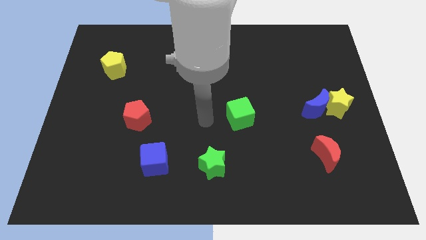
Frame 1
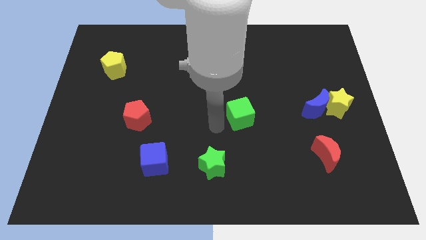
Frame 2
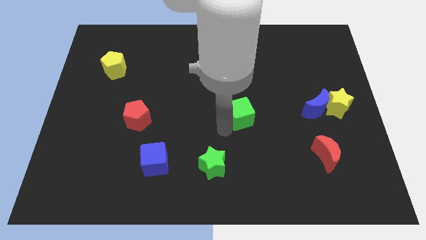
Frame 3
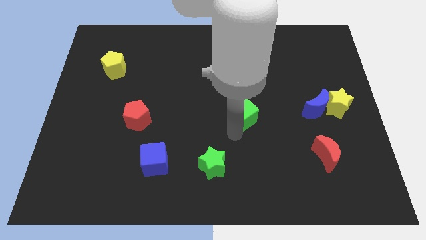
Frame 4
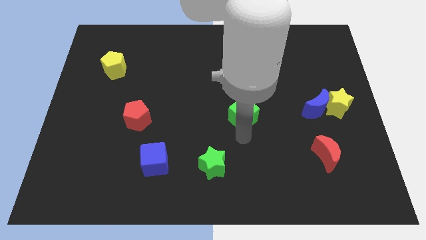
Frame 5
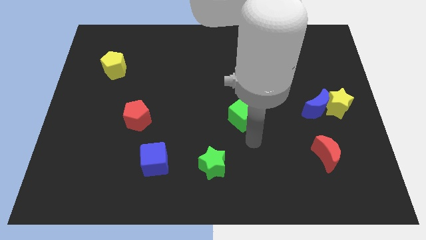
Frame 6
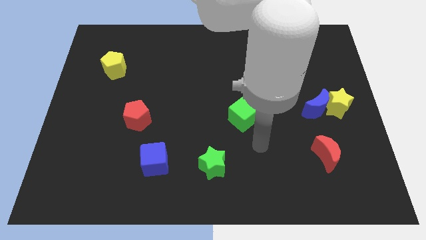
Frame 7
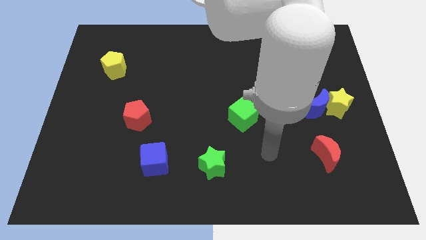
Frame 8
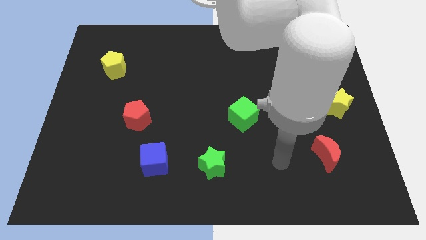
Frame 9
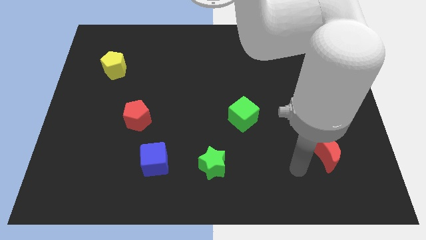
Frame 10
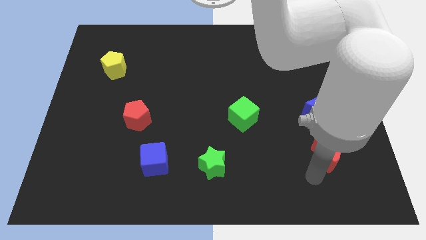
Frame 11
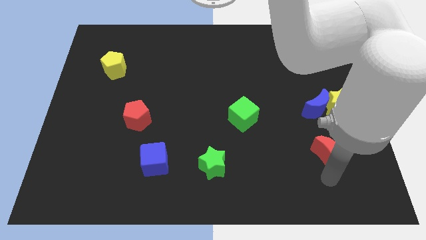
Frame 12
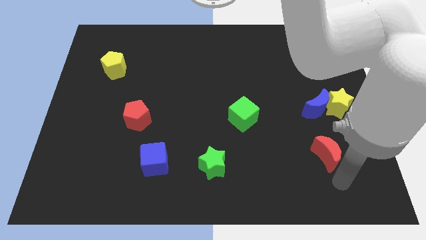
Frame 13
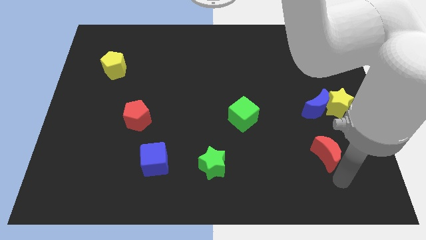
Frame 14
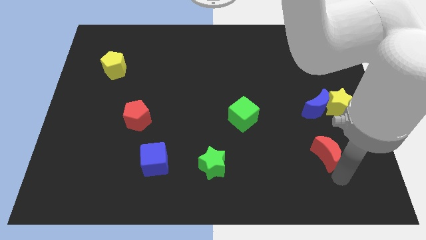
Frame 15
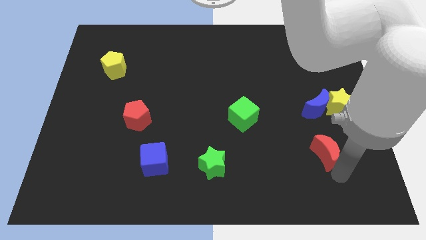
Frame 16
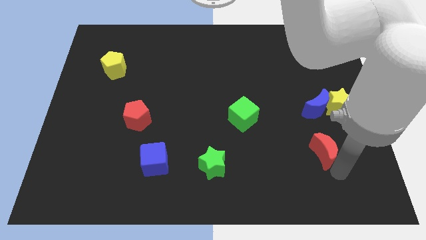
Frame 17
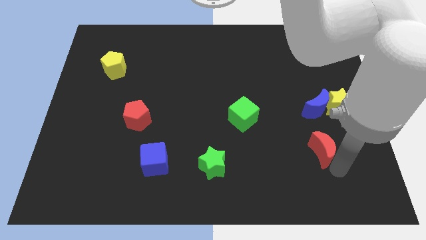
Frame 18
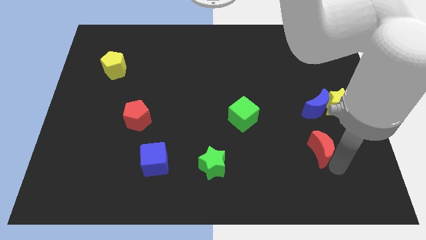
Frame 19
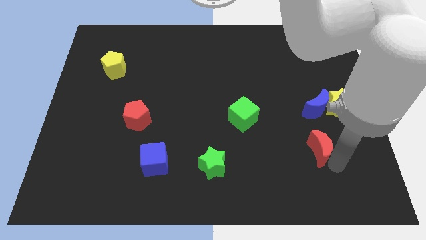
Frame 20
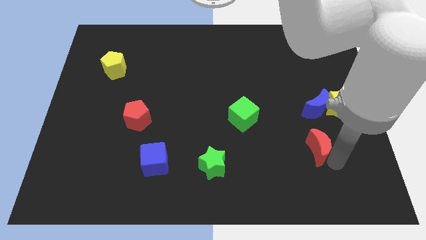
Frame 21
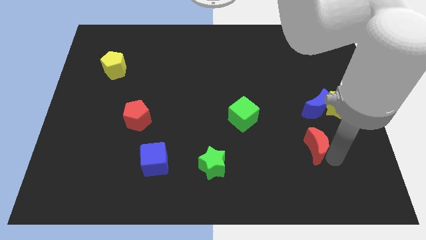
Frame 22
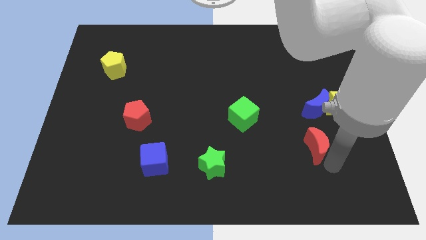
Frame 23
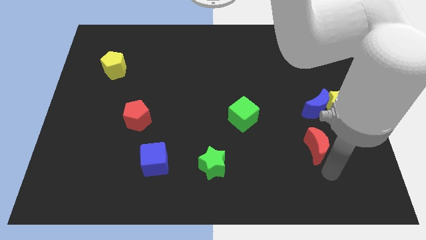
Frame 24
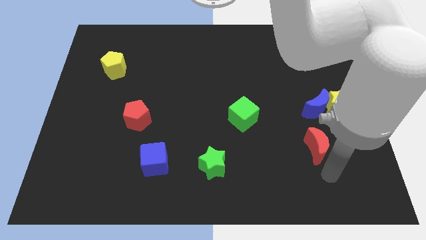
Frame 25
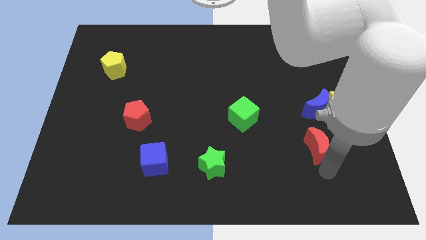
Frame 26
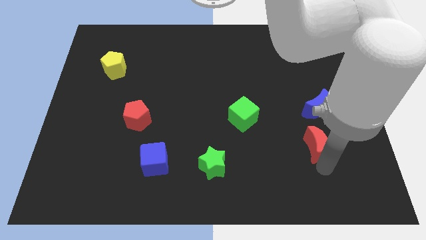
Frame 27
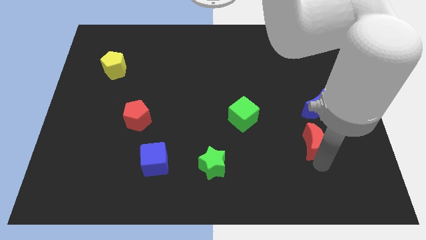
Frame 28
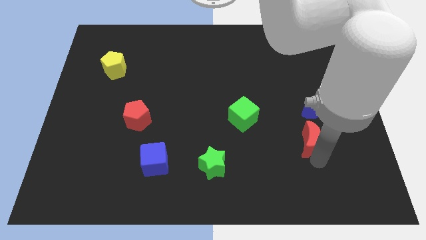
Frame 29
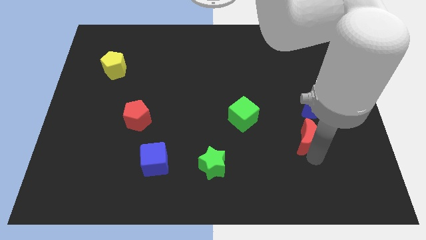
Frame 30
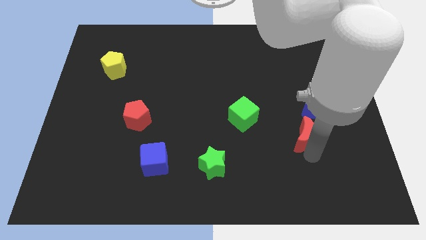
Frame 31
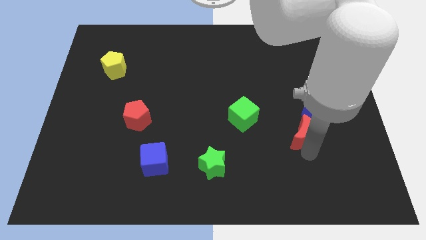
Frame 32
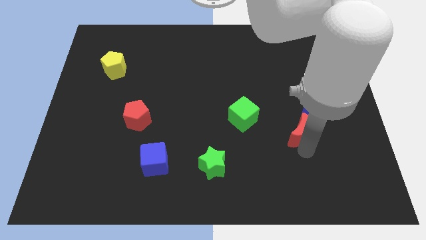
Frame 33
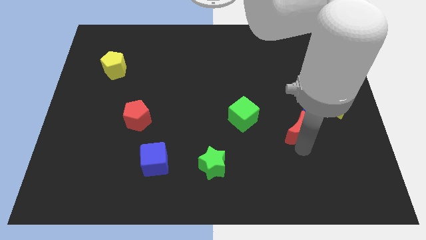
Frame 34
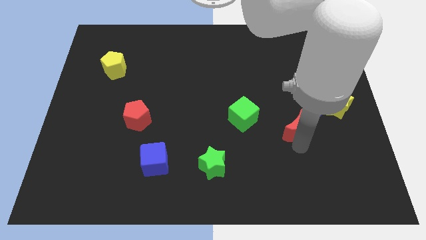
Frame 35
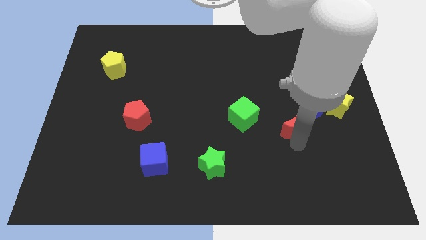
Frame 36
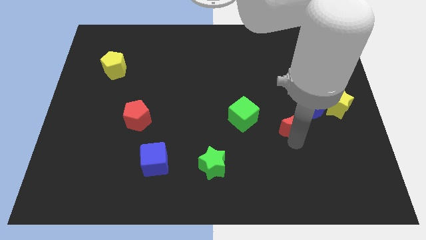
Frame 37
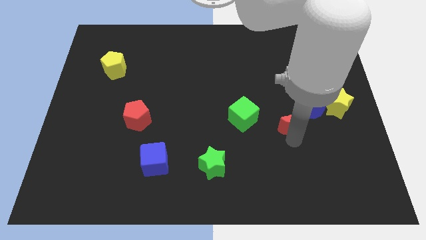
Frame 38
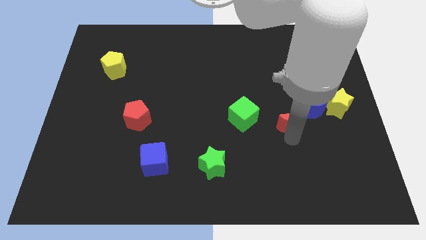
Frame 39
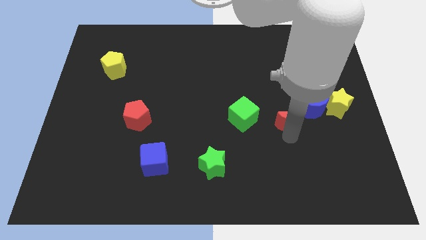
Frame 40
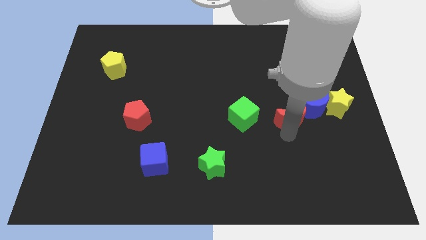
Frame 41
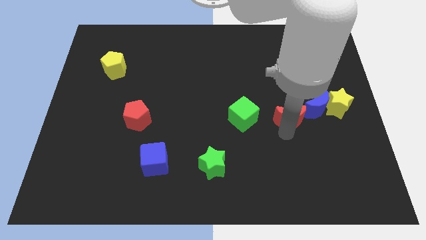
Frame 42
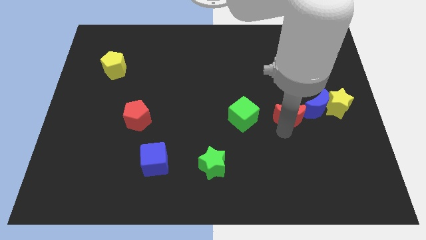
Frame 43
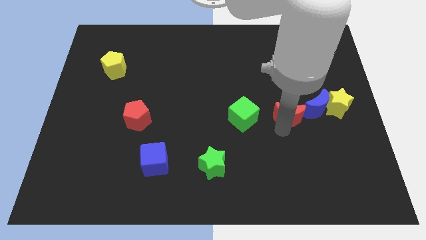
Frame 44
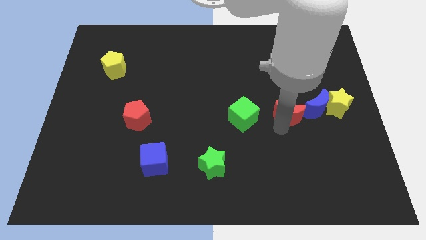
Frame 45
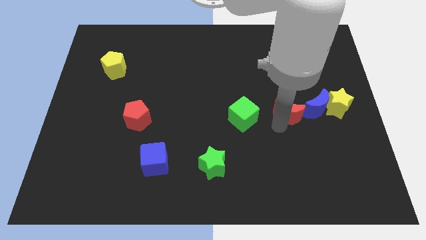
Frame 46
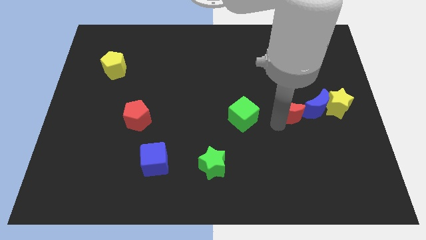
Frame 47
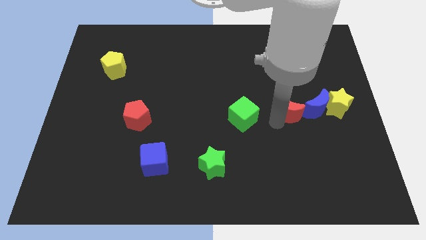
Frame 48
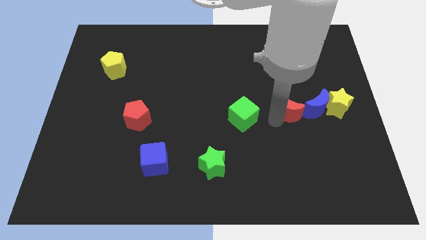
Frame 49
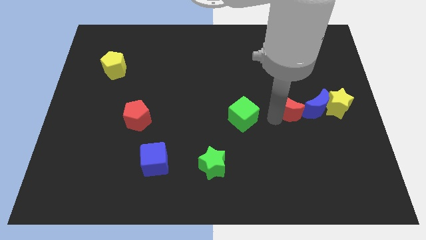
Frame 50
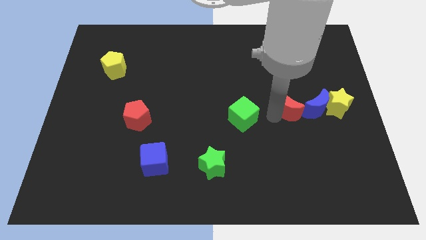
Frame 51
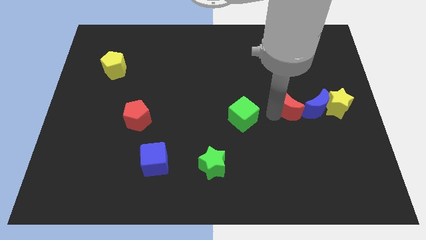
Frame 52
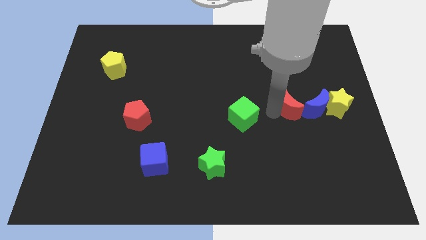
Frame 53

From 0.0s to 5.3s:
move the red moon to the top left side of the blue moon

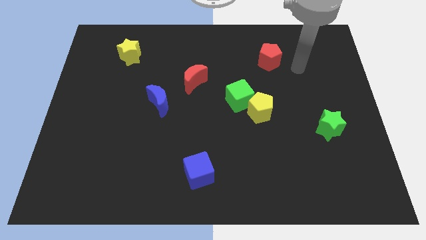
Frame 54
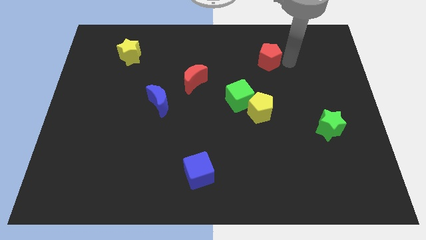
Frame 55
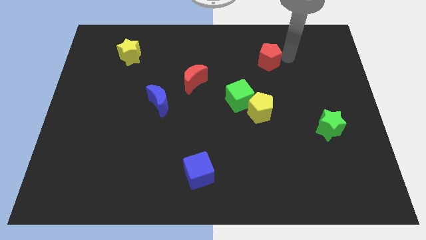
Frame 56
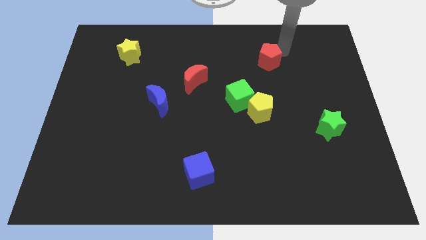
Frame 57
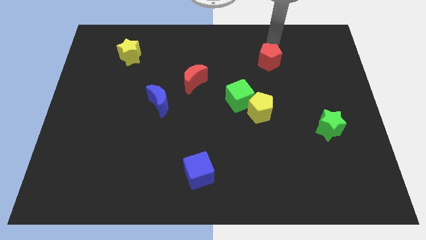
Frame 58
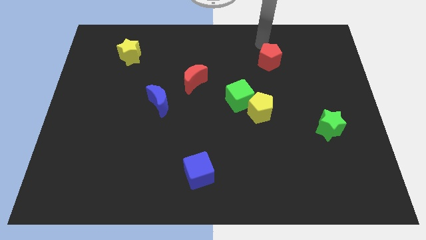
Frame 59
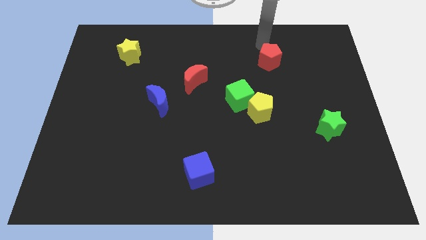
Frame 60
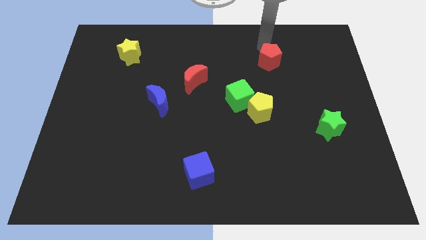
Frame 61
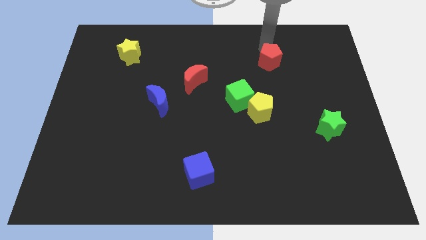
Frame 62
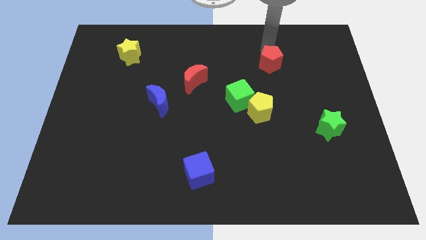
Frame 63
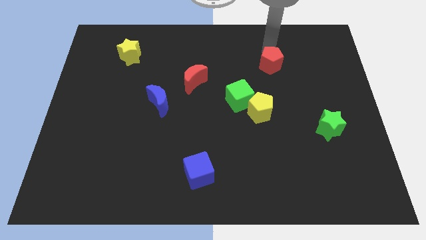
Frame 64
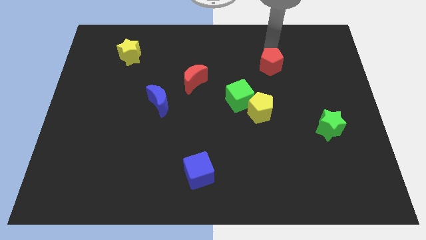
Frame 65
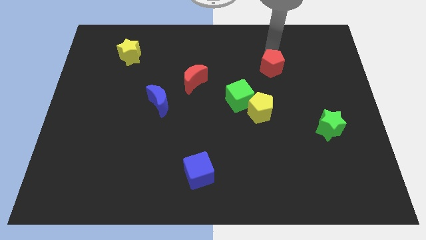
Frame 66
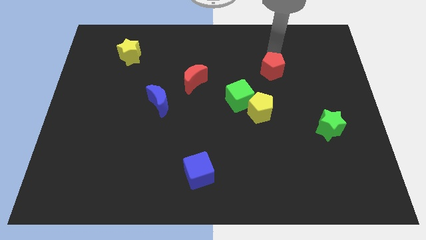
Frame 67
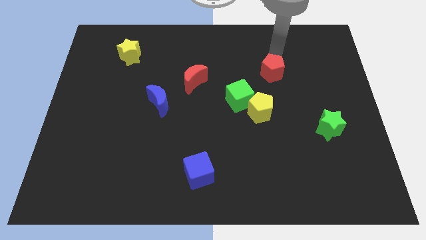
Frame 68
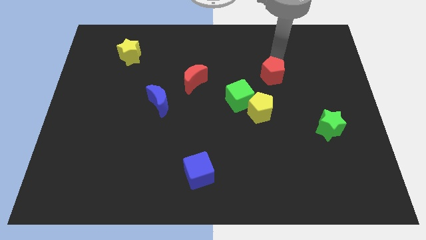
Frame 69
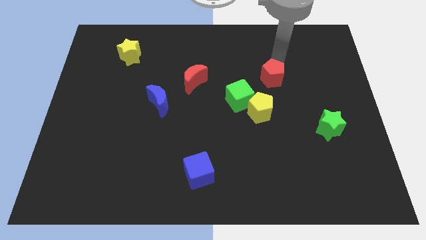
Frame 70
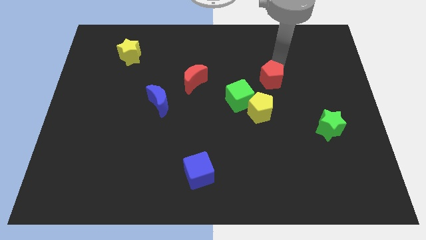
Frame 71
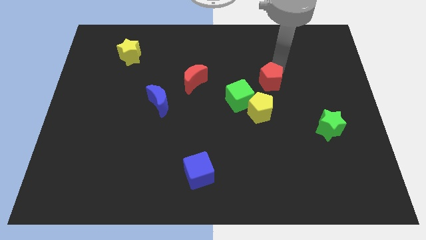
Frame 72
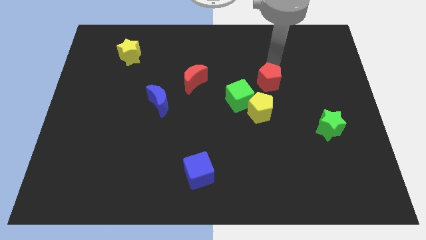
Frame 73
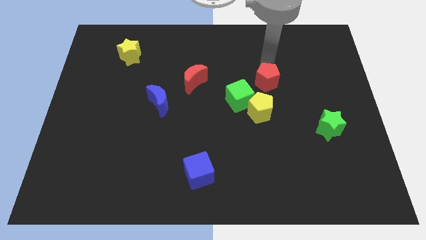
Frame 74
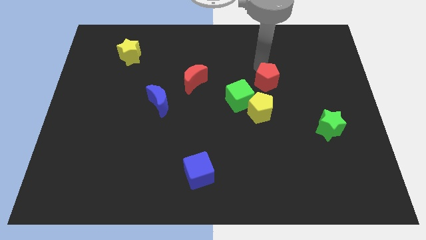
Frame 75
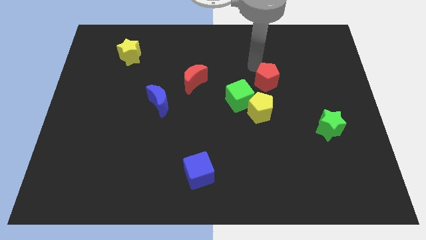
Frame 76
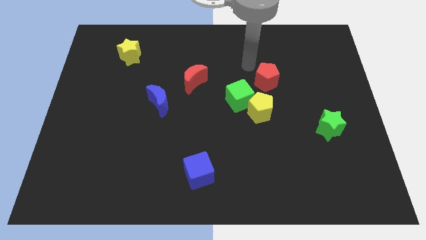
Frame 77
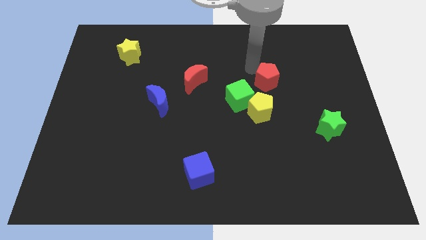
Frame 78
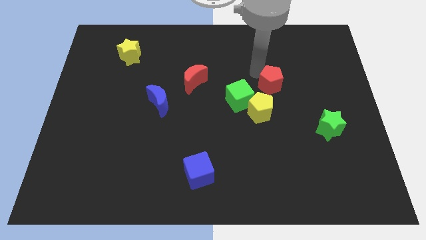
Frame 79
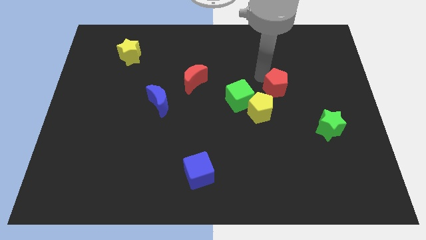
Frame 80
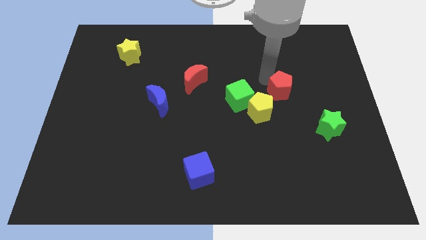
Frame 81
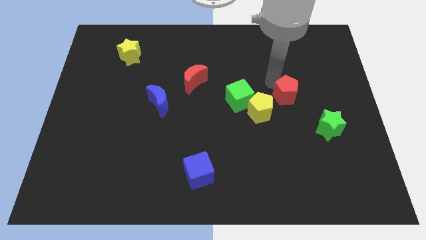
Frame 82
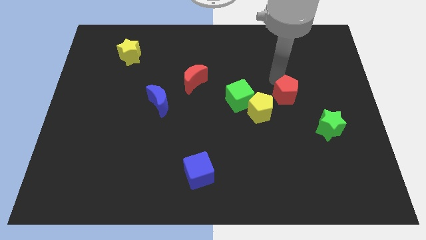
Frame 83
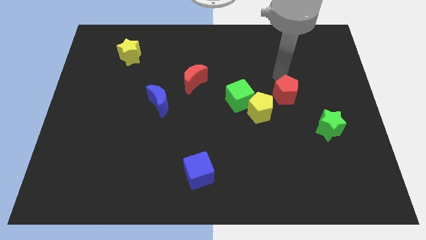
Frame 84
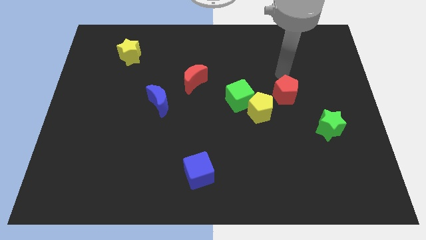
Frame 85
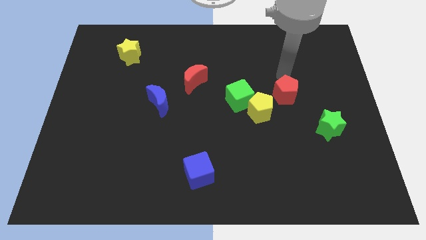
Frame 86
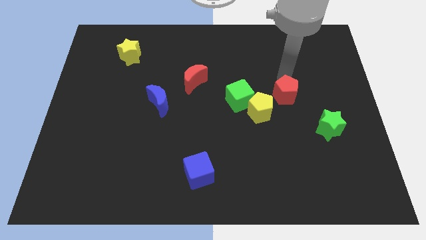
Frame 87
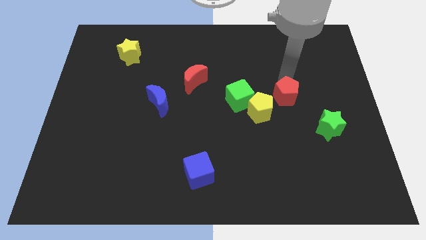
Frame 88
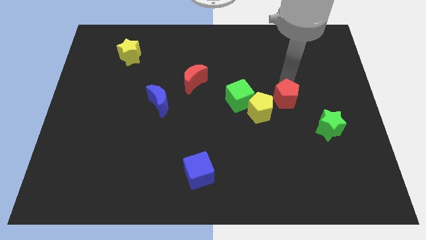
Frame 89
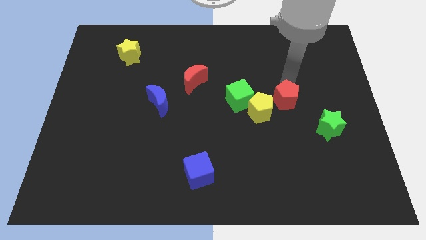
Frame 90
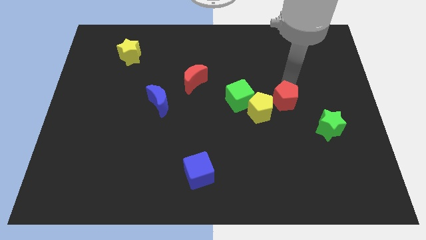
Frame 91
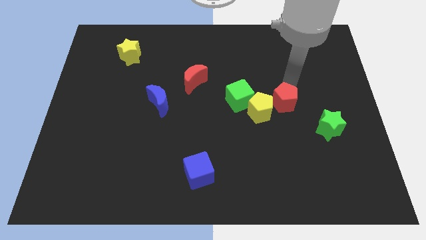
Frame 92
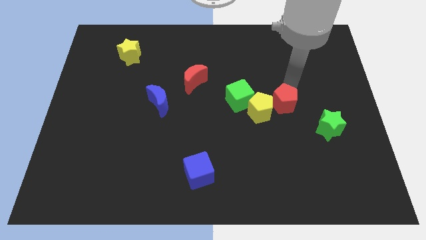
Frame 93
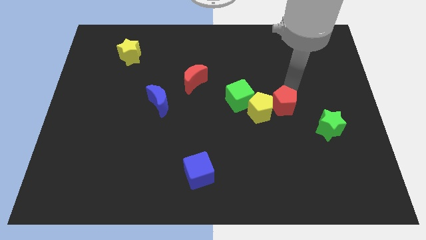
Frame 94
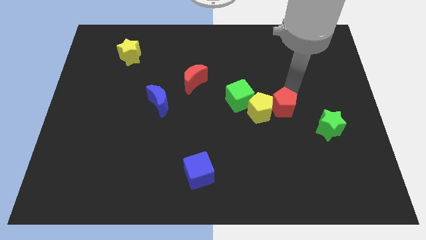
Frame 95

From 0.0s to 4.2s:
move the red pentagon to the bottom right side of the yellow pentagon
